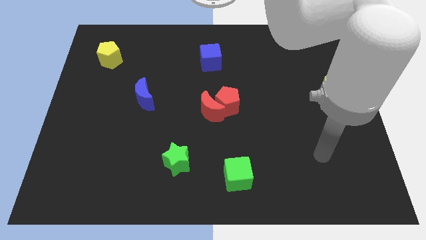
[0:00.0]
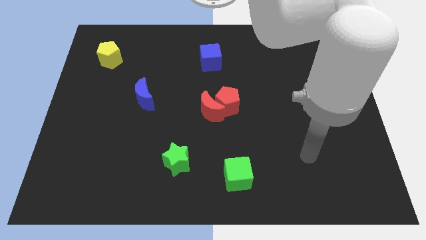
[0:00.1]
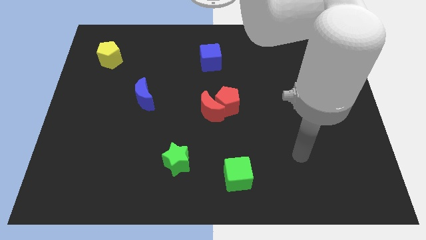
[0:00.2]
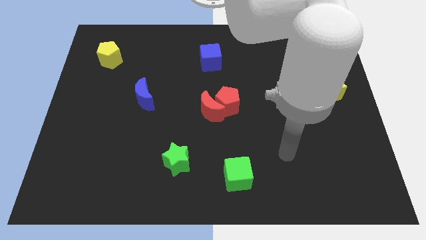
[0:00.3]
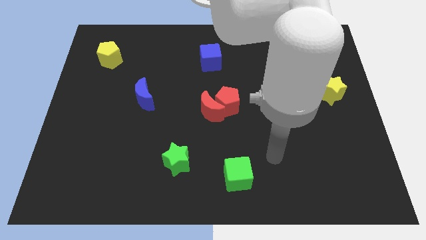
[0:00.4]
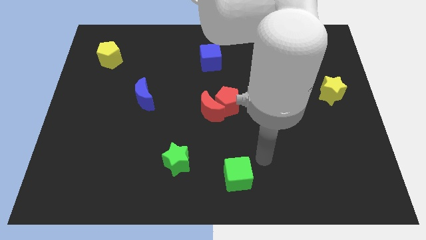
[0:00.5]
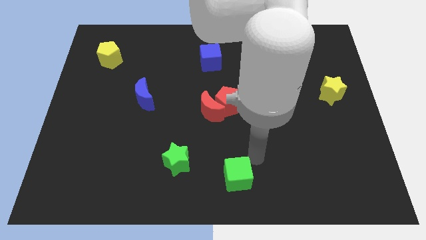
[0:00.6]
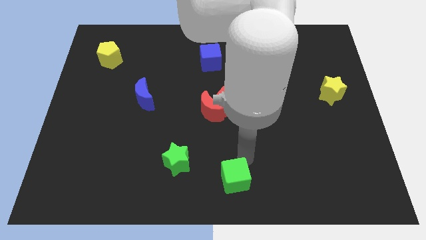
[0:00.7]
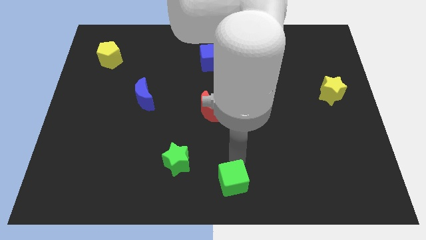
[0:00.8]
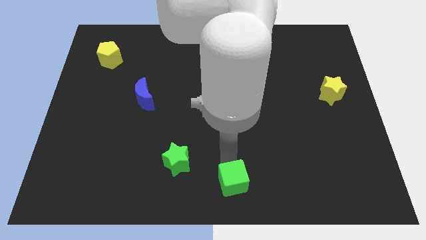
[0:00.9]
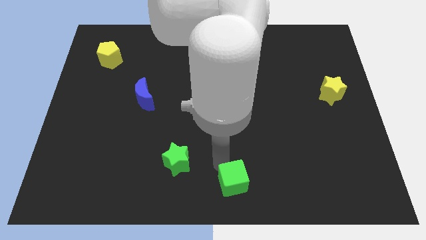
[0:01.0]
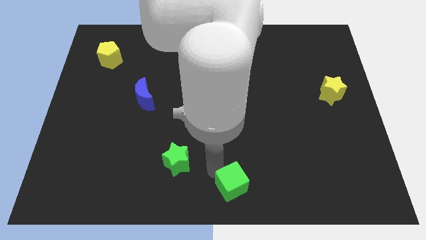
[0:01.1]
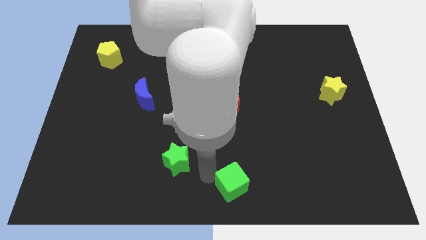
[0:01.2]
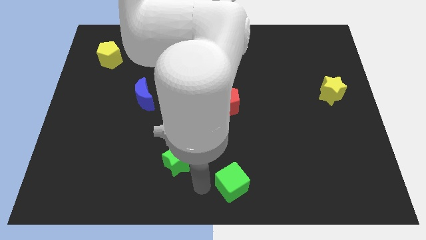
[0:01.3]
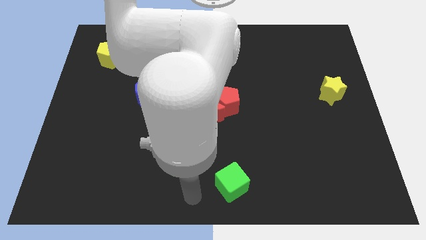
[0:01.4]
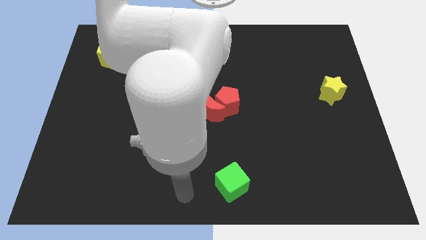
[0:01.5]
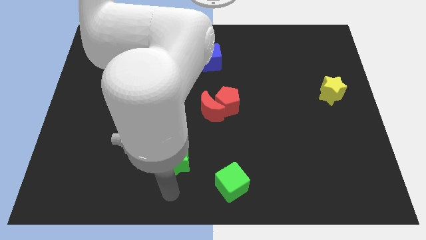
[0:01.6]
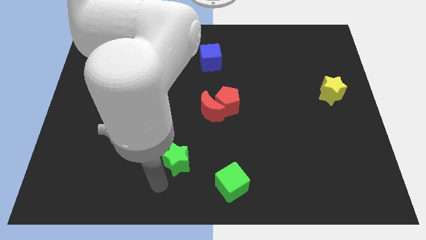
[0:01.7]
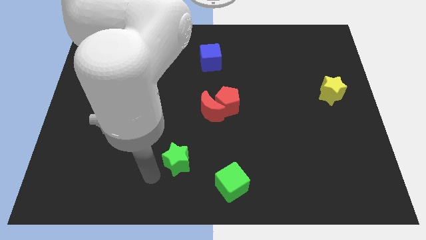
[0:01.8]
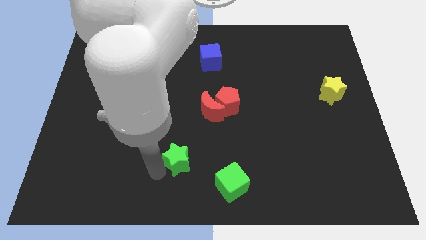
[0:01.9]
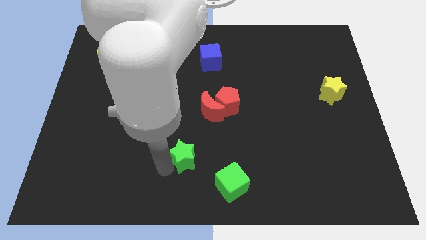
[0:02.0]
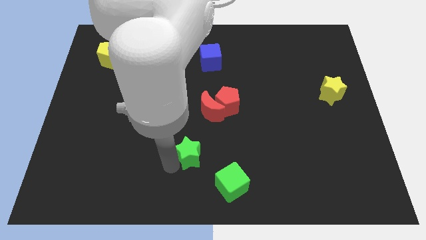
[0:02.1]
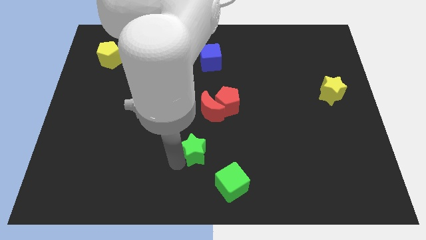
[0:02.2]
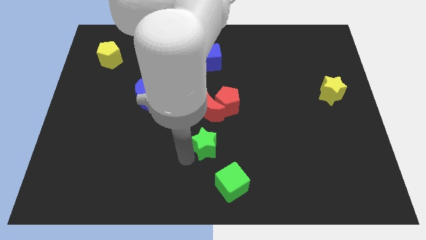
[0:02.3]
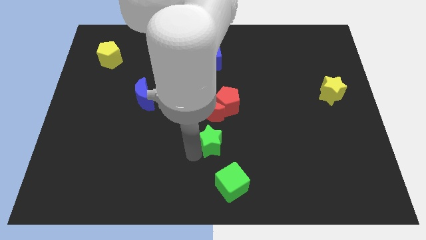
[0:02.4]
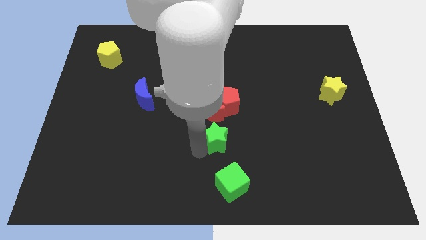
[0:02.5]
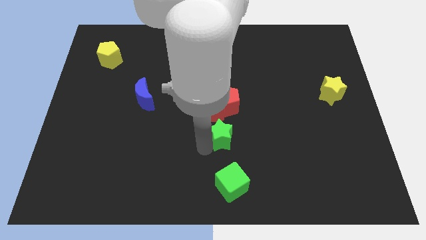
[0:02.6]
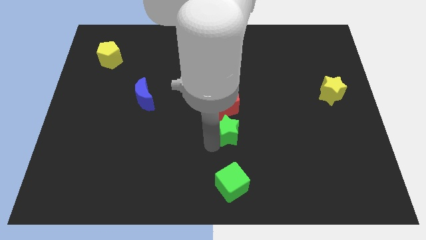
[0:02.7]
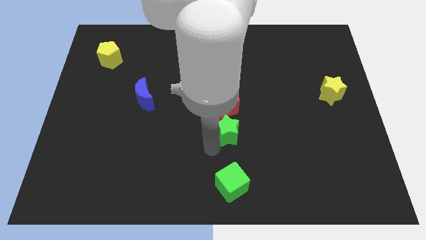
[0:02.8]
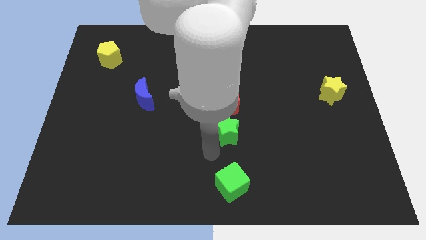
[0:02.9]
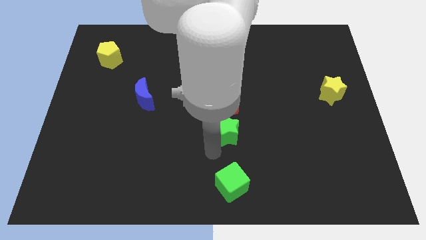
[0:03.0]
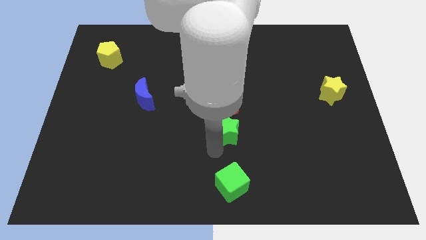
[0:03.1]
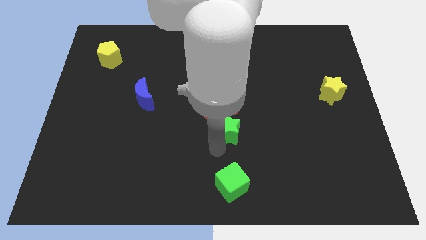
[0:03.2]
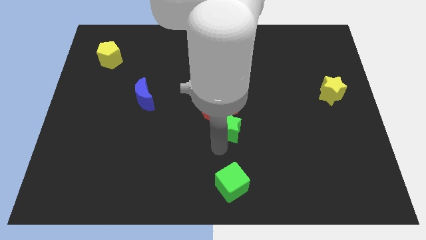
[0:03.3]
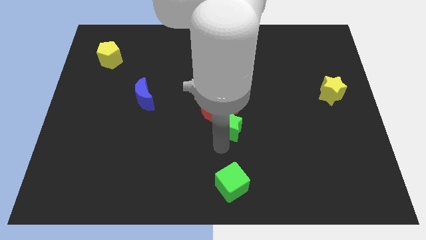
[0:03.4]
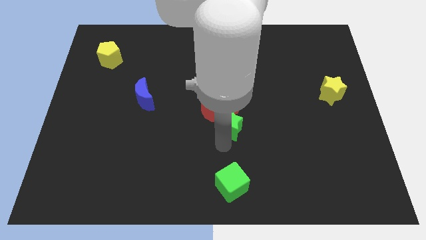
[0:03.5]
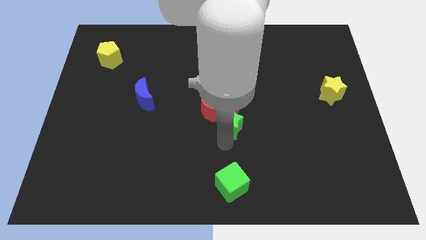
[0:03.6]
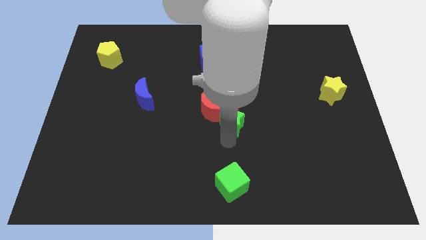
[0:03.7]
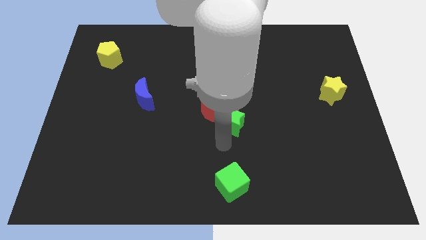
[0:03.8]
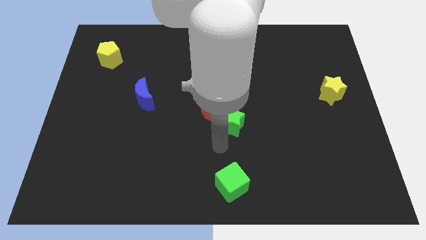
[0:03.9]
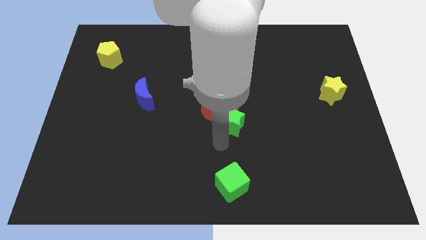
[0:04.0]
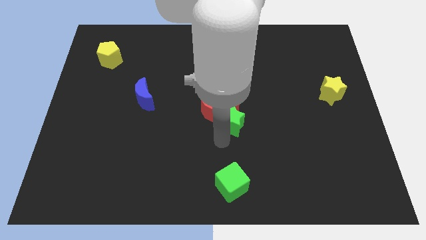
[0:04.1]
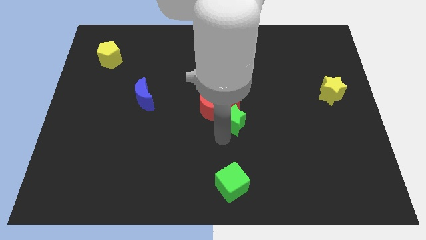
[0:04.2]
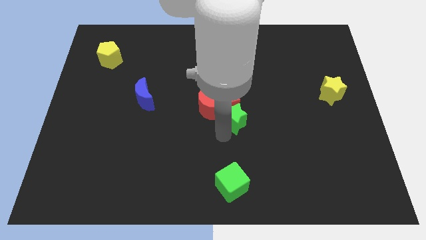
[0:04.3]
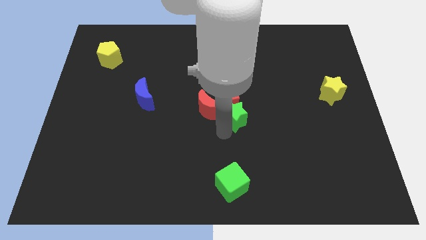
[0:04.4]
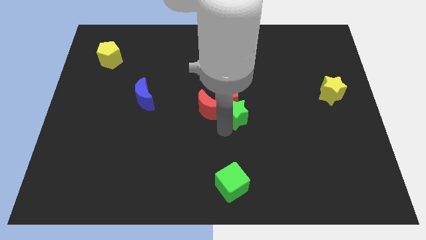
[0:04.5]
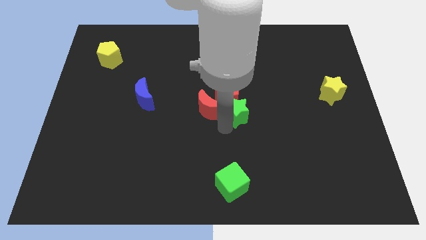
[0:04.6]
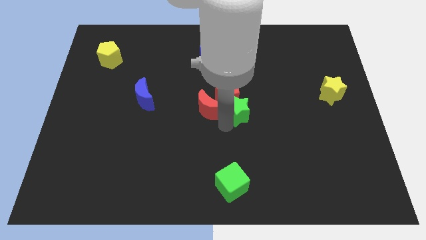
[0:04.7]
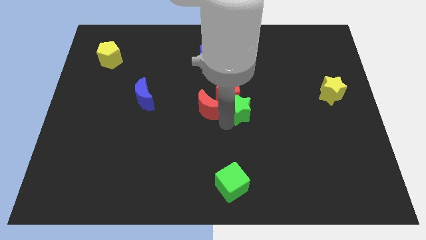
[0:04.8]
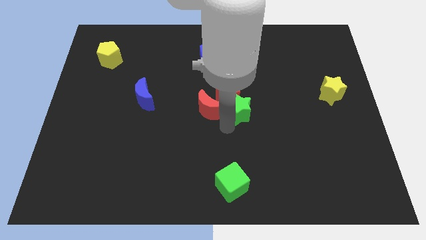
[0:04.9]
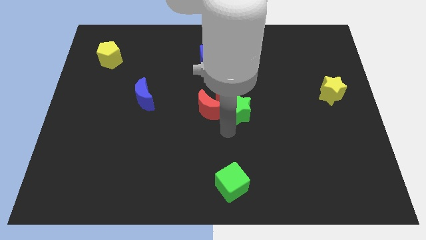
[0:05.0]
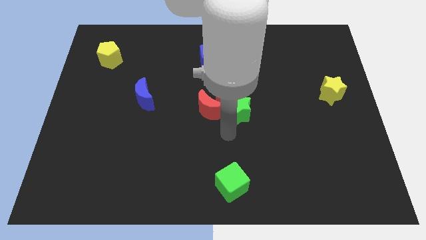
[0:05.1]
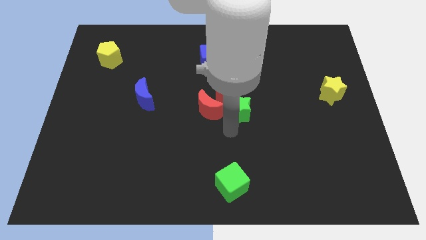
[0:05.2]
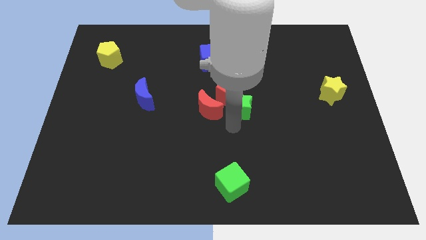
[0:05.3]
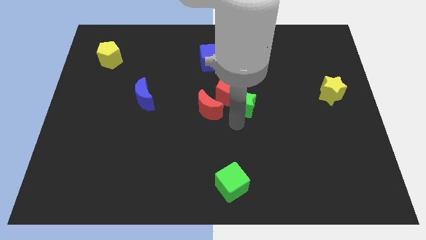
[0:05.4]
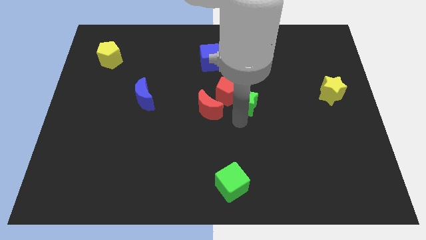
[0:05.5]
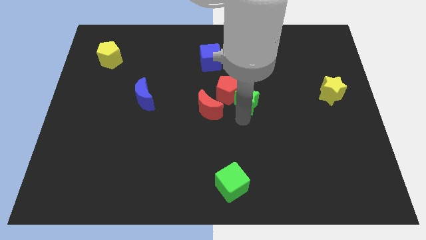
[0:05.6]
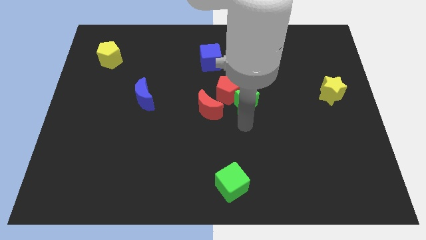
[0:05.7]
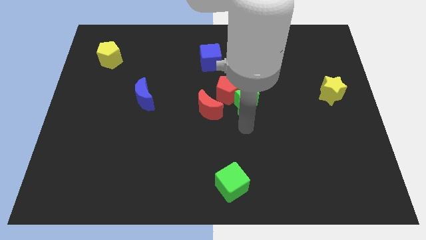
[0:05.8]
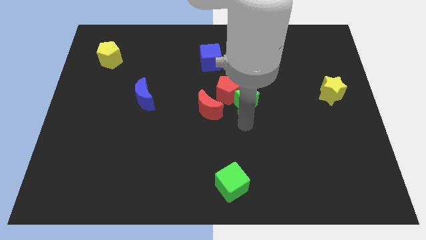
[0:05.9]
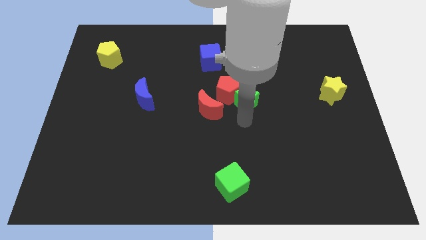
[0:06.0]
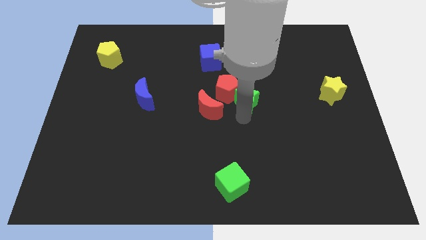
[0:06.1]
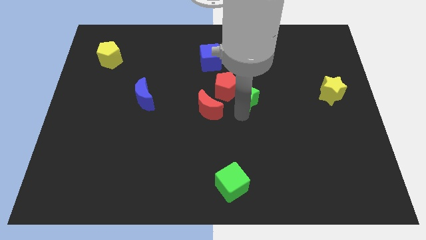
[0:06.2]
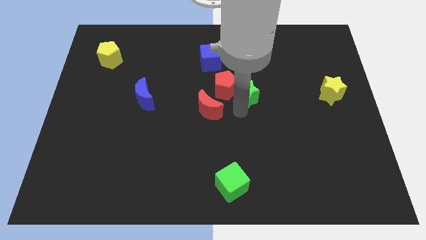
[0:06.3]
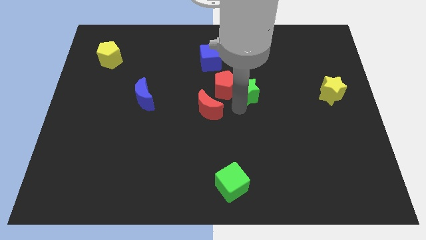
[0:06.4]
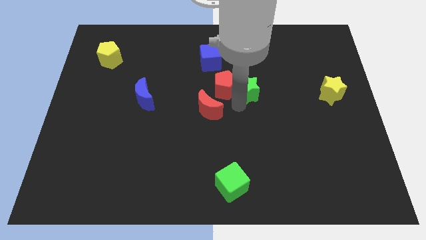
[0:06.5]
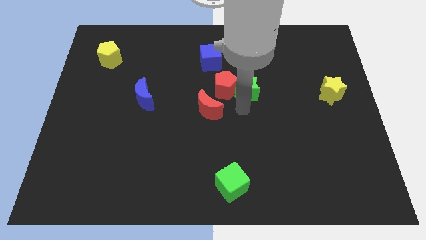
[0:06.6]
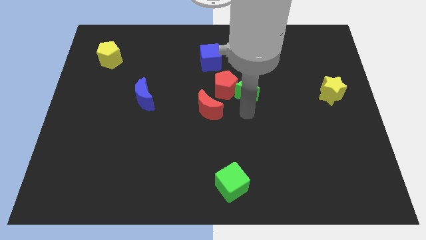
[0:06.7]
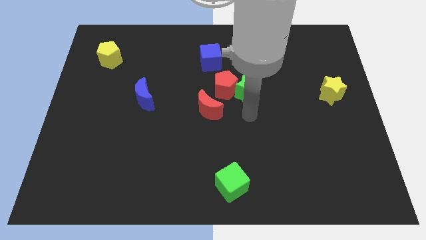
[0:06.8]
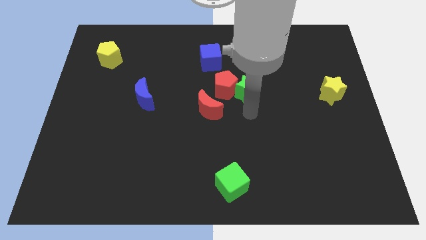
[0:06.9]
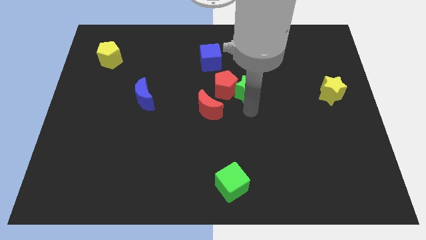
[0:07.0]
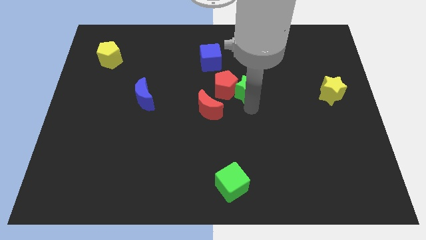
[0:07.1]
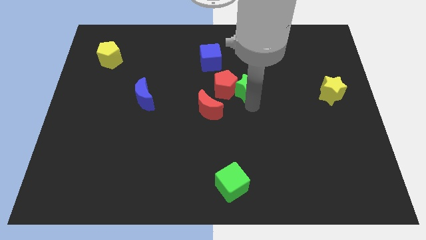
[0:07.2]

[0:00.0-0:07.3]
slide the green star diagonally up and to the right of the red pentagon

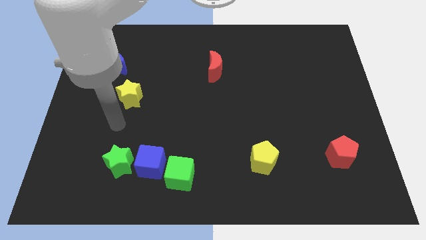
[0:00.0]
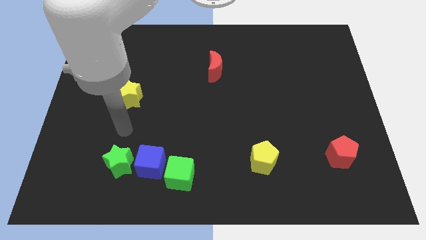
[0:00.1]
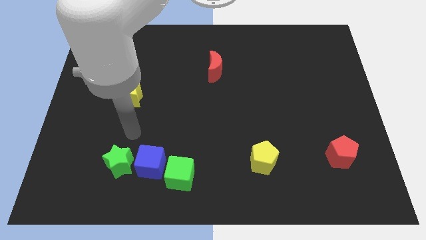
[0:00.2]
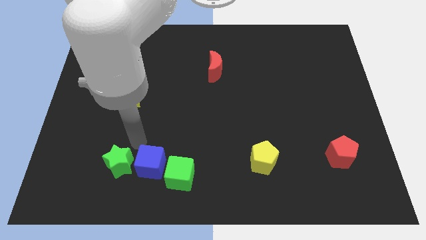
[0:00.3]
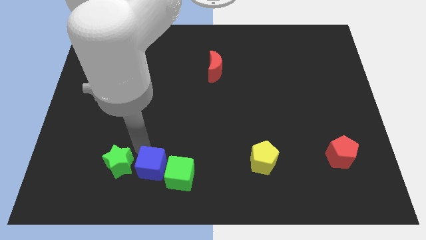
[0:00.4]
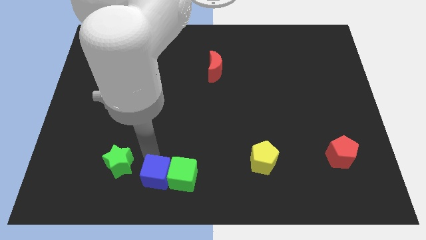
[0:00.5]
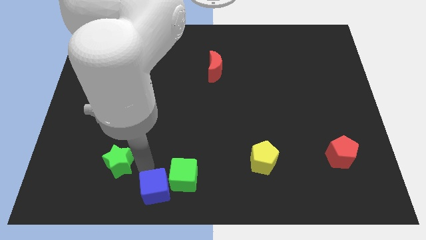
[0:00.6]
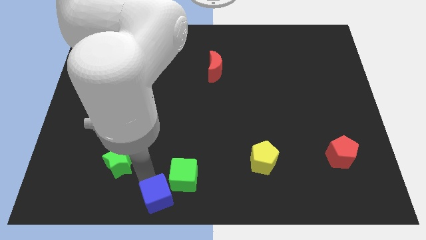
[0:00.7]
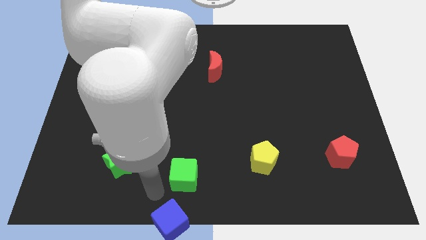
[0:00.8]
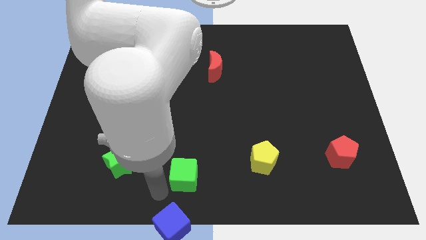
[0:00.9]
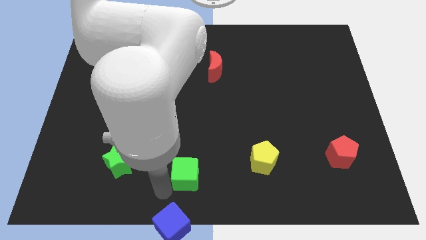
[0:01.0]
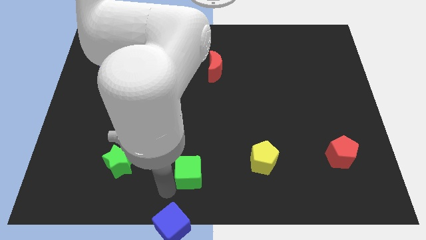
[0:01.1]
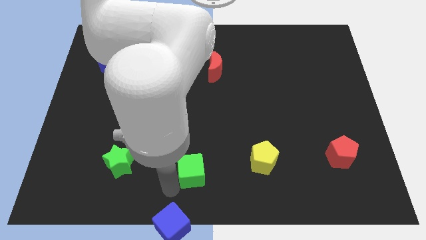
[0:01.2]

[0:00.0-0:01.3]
put the green cube to the left side of the yellow pentagon
